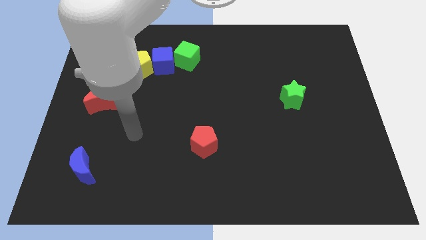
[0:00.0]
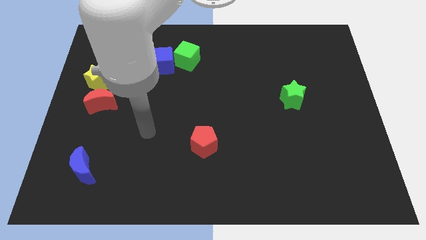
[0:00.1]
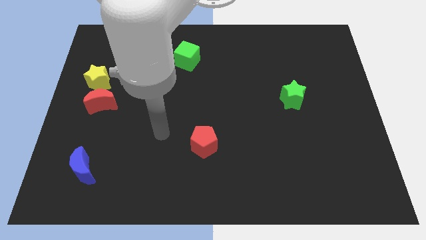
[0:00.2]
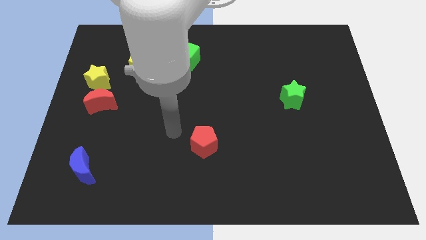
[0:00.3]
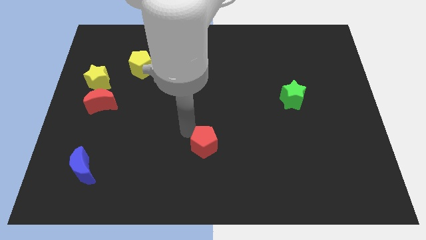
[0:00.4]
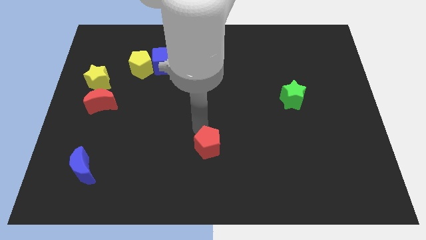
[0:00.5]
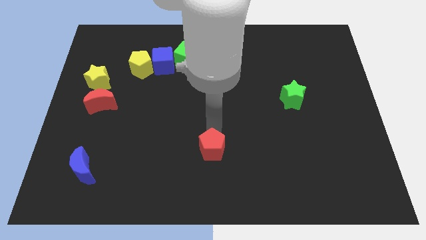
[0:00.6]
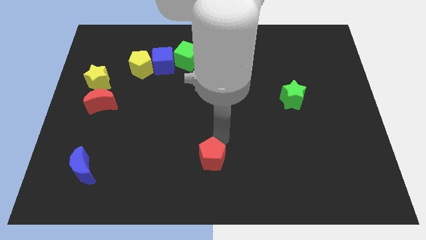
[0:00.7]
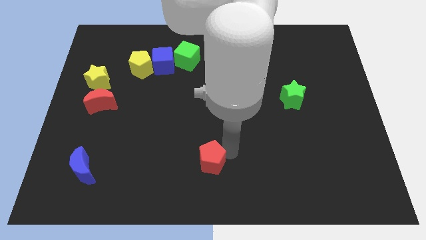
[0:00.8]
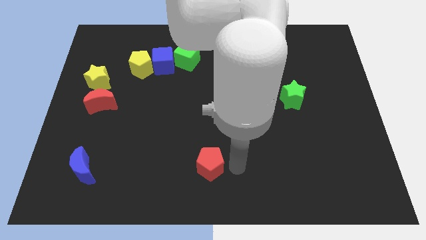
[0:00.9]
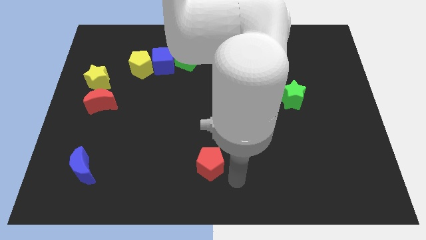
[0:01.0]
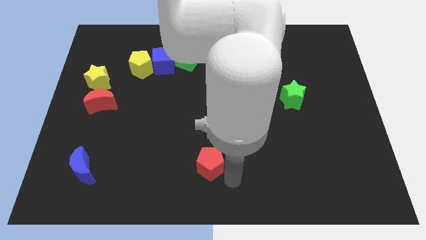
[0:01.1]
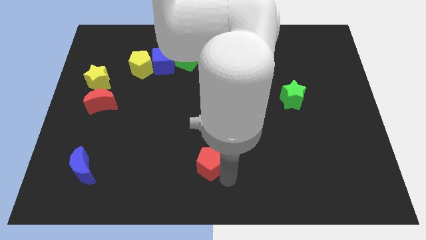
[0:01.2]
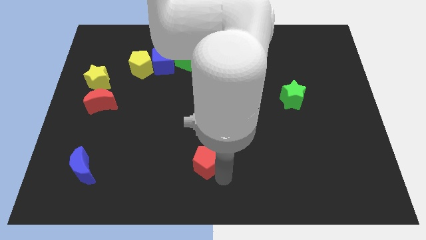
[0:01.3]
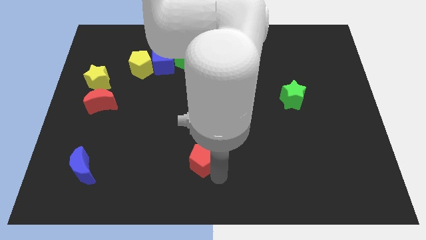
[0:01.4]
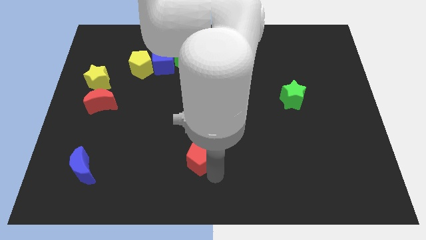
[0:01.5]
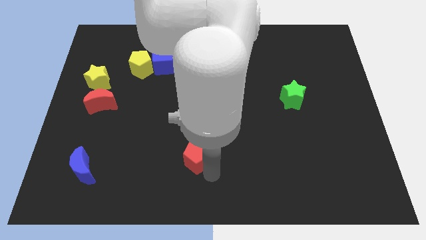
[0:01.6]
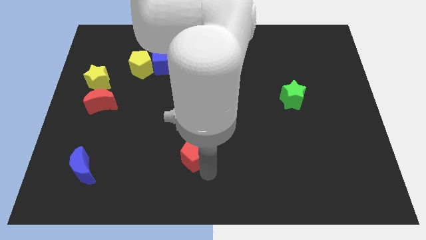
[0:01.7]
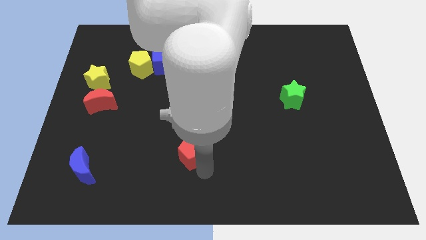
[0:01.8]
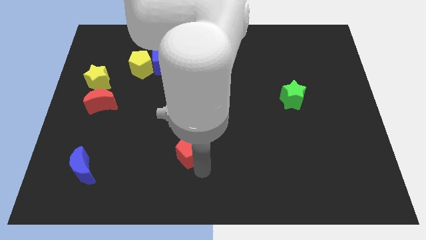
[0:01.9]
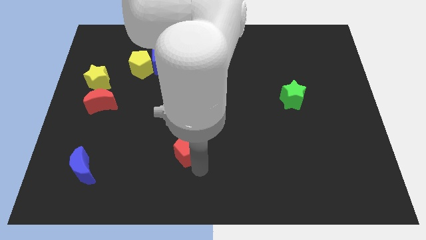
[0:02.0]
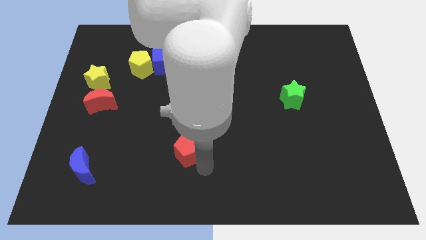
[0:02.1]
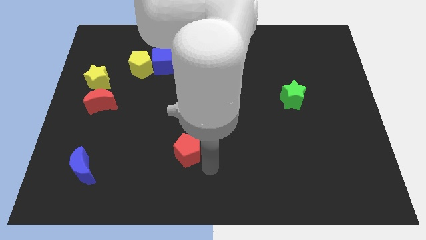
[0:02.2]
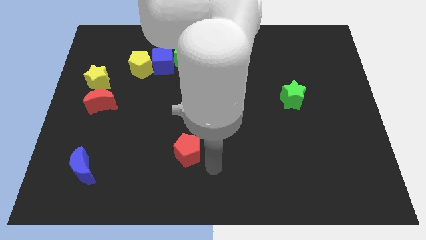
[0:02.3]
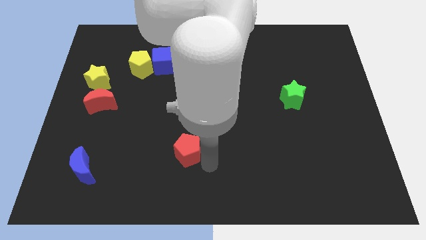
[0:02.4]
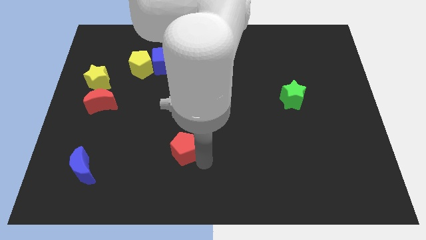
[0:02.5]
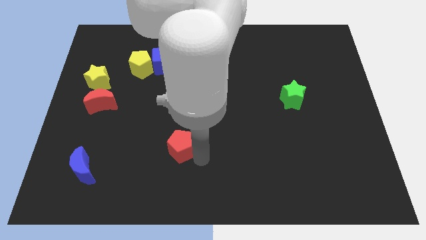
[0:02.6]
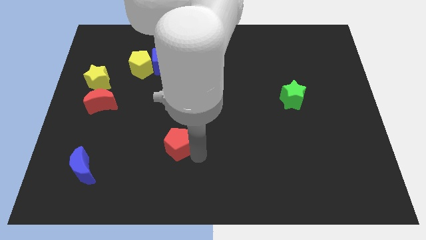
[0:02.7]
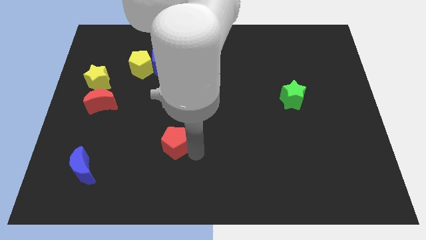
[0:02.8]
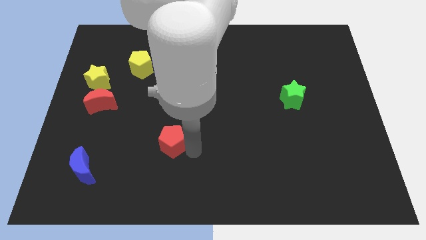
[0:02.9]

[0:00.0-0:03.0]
push the red pentagon a little left

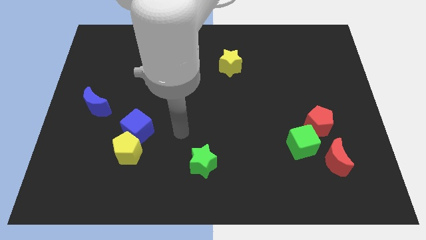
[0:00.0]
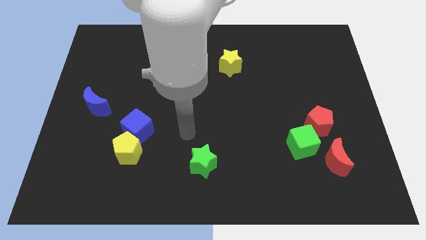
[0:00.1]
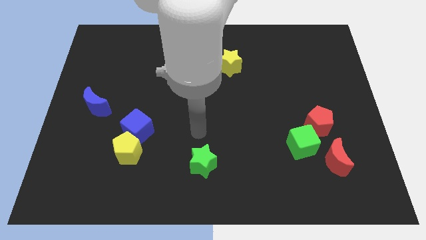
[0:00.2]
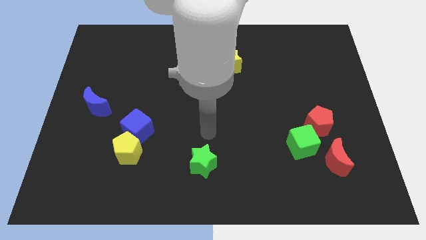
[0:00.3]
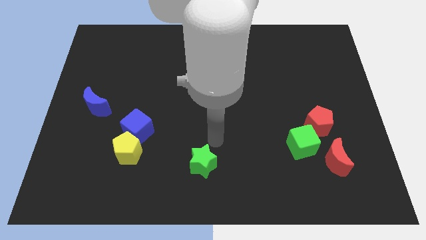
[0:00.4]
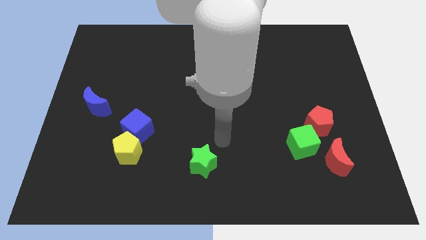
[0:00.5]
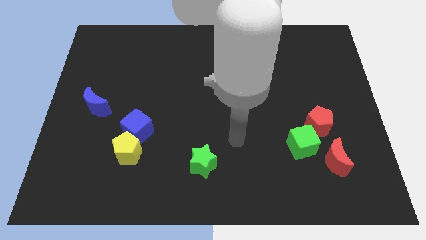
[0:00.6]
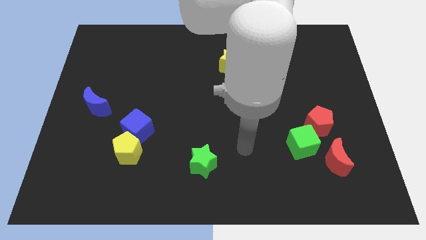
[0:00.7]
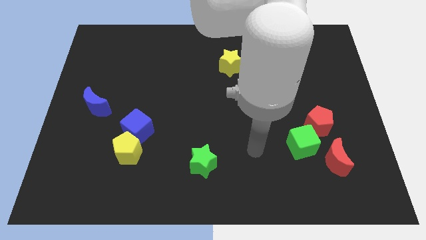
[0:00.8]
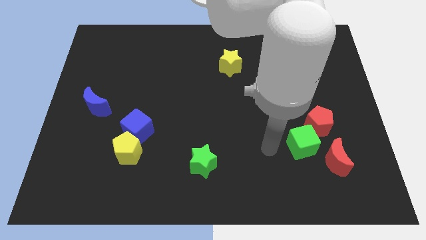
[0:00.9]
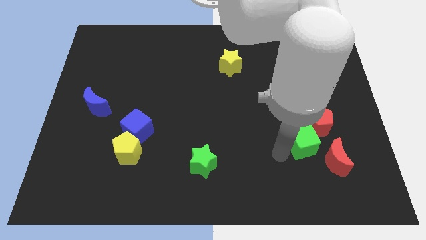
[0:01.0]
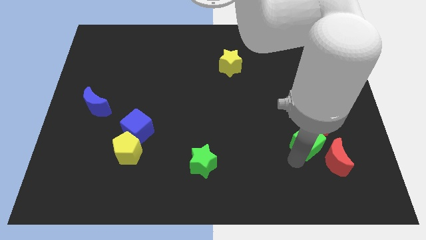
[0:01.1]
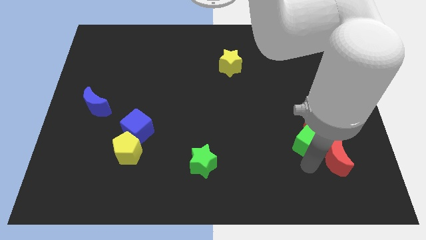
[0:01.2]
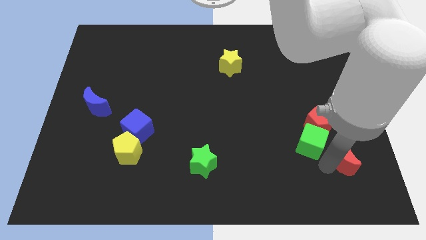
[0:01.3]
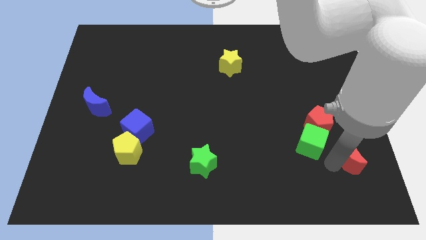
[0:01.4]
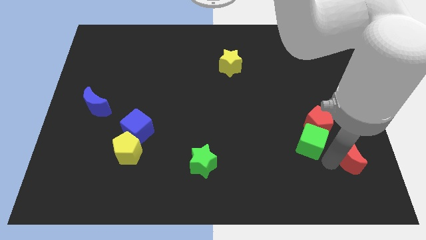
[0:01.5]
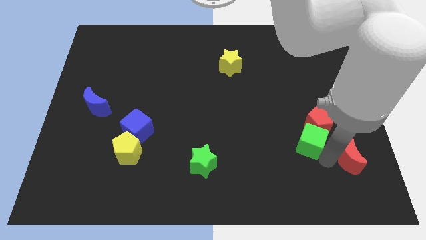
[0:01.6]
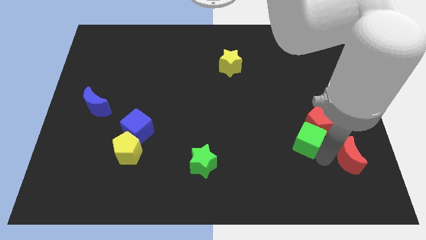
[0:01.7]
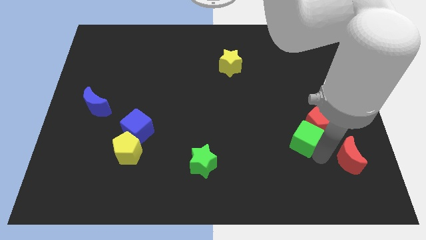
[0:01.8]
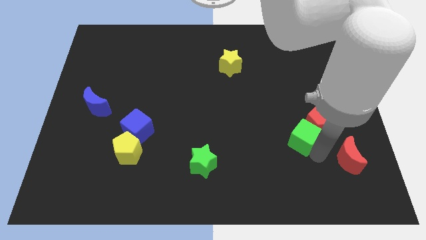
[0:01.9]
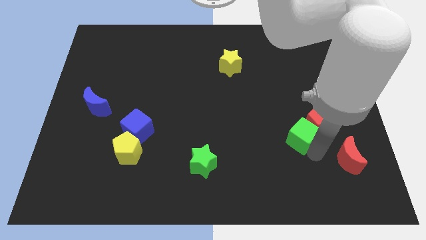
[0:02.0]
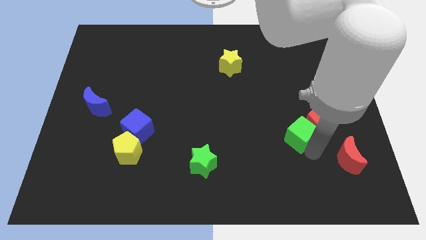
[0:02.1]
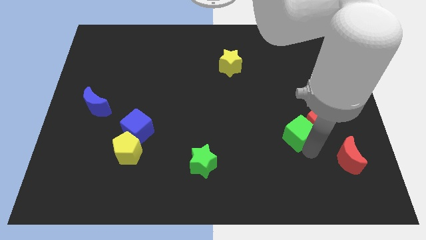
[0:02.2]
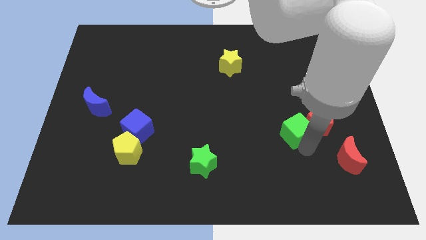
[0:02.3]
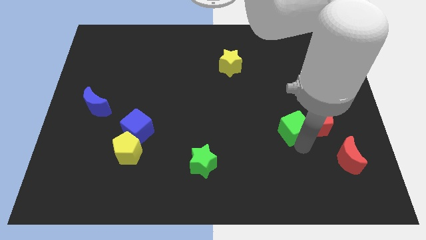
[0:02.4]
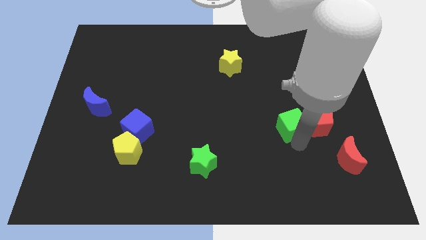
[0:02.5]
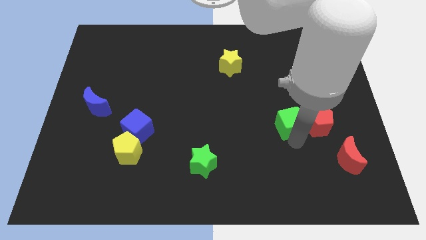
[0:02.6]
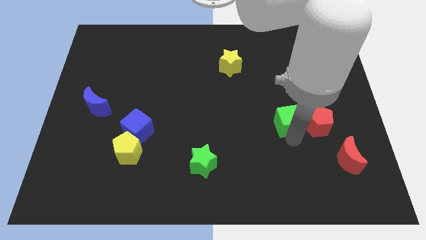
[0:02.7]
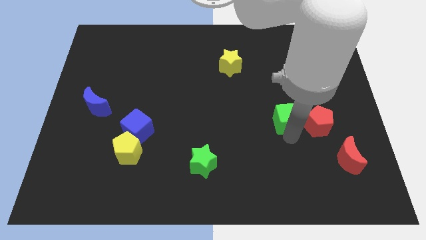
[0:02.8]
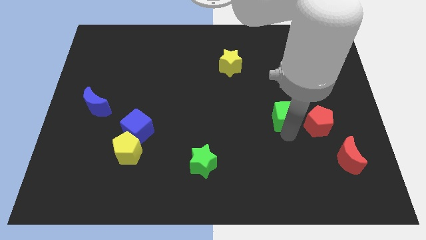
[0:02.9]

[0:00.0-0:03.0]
slide the green cube a little bit upwards

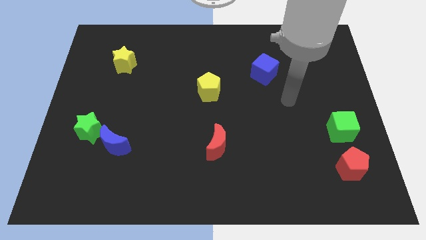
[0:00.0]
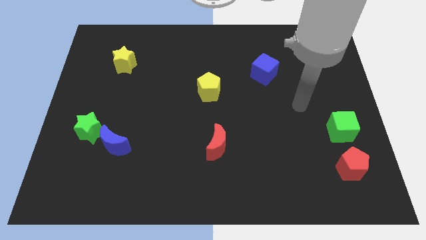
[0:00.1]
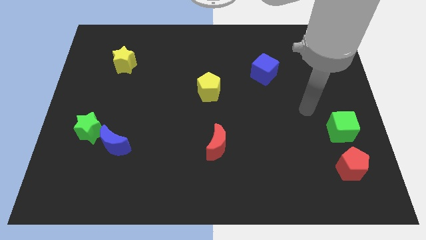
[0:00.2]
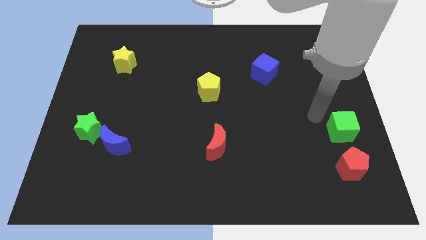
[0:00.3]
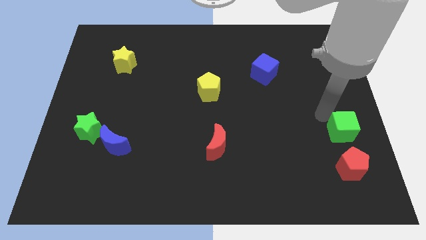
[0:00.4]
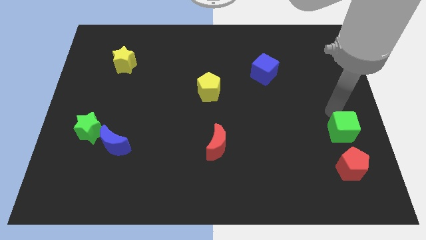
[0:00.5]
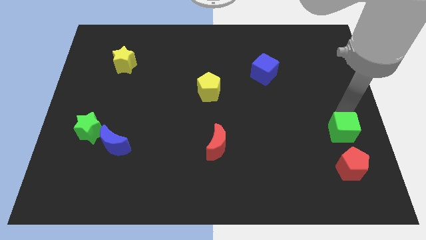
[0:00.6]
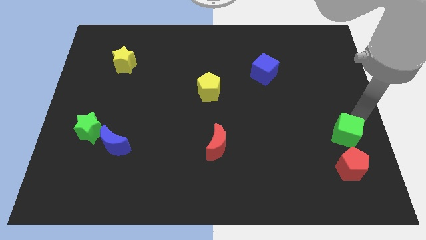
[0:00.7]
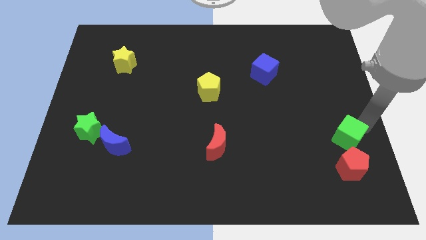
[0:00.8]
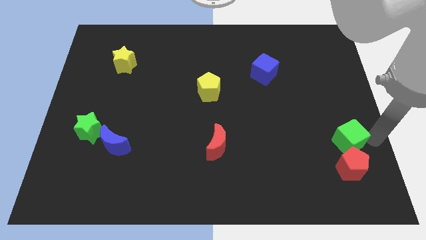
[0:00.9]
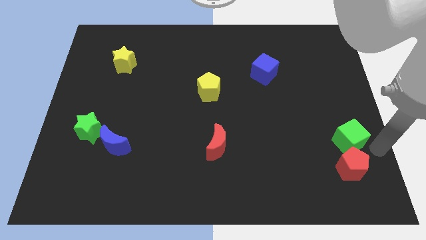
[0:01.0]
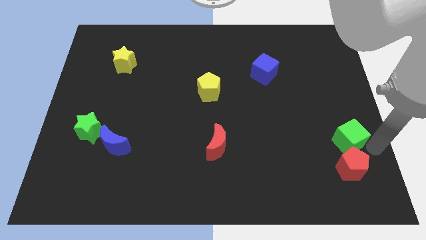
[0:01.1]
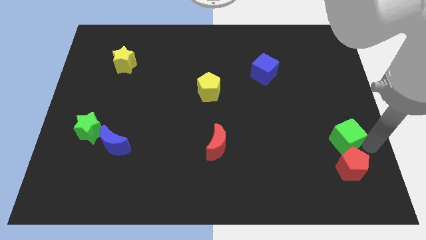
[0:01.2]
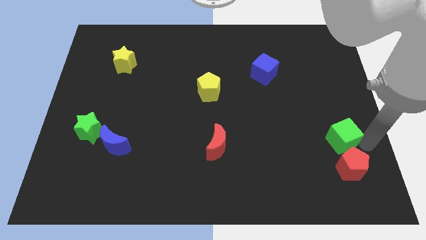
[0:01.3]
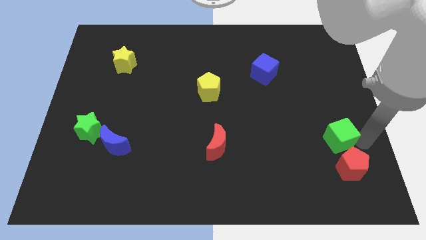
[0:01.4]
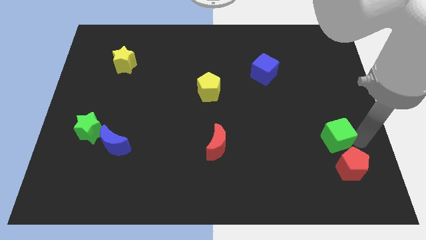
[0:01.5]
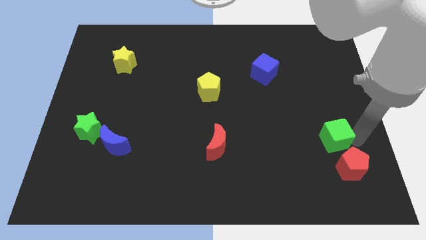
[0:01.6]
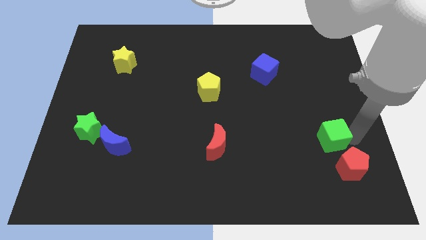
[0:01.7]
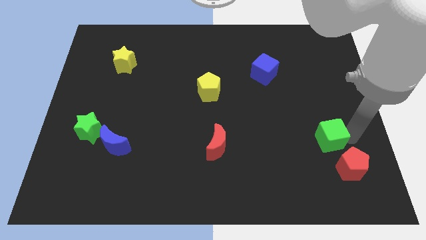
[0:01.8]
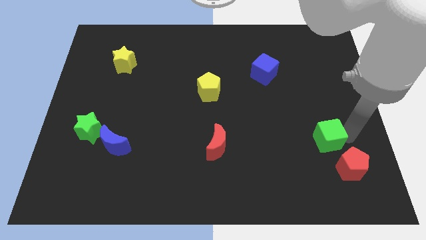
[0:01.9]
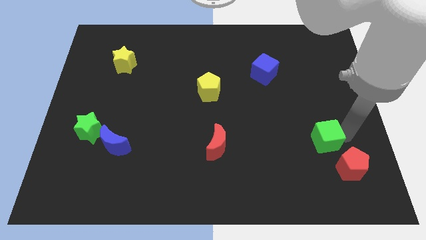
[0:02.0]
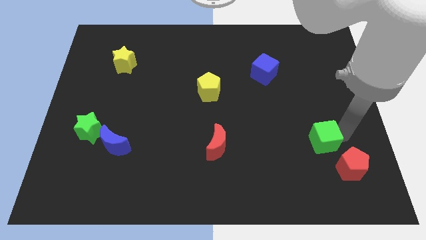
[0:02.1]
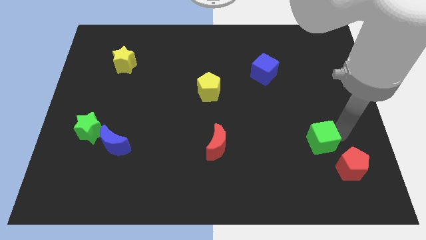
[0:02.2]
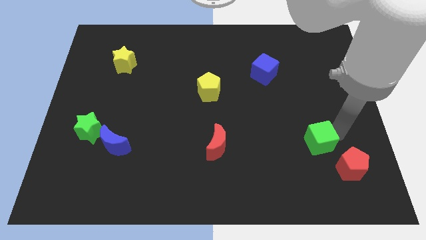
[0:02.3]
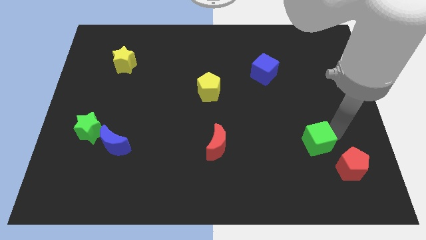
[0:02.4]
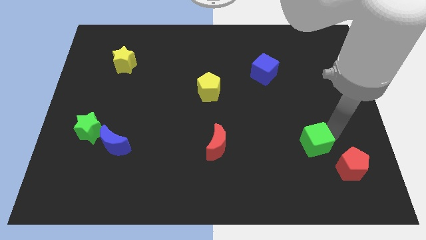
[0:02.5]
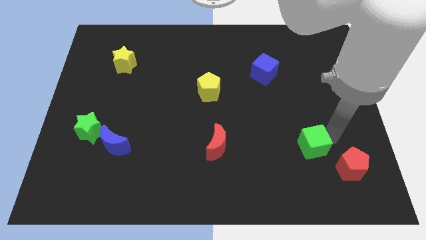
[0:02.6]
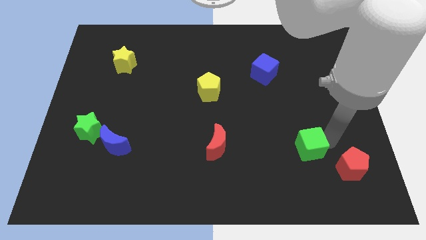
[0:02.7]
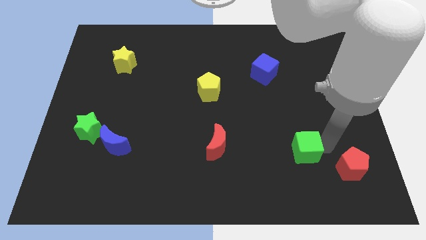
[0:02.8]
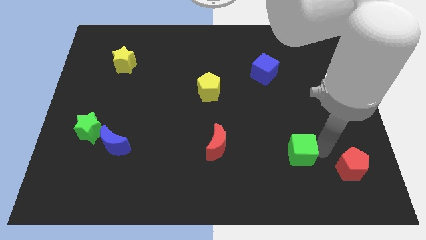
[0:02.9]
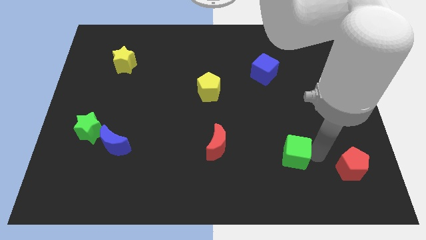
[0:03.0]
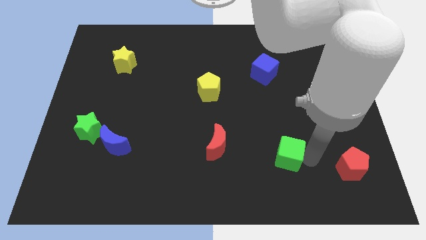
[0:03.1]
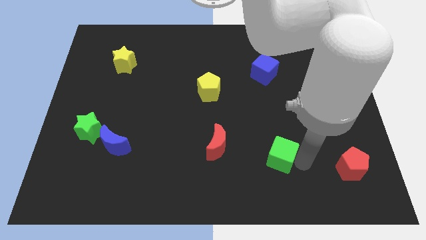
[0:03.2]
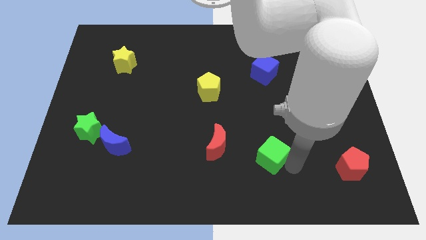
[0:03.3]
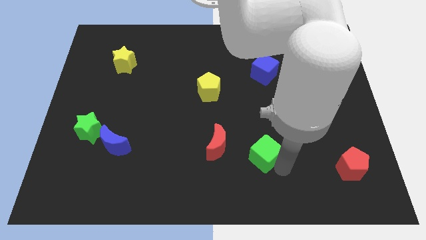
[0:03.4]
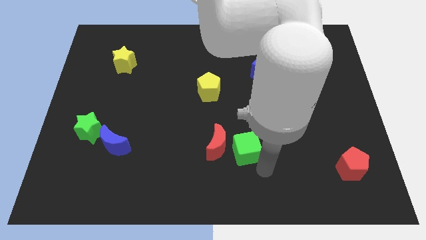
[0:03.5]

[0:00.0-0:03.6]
push the green cube left
